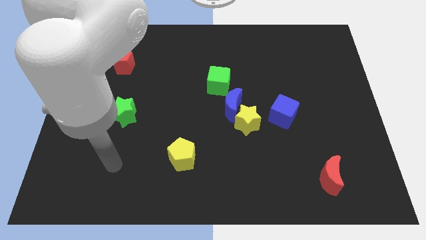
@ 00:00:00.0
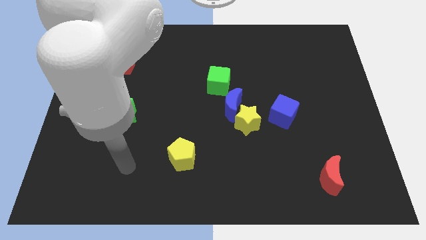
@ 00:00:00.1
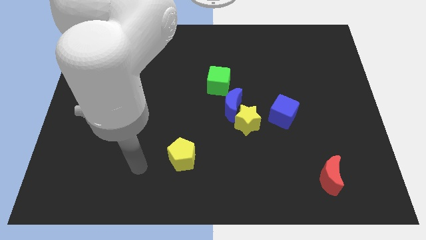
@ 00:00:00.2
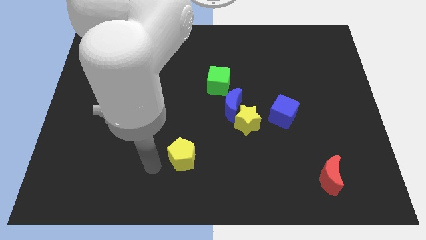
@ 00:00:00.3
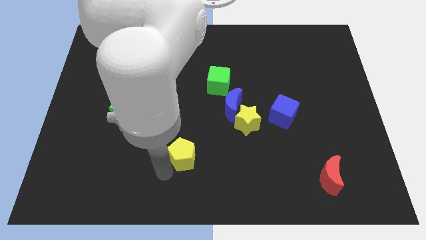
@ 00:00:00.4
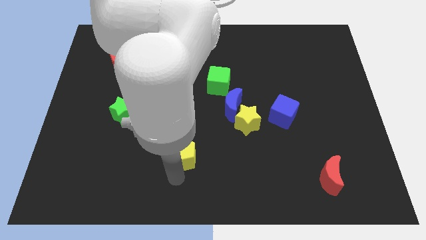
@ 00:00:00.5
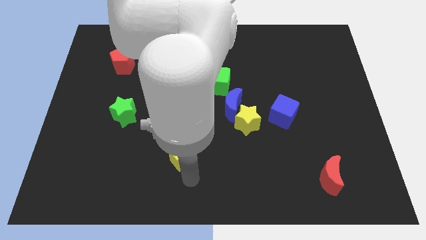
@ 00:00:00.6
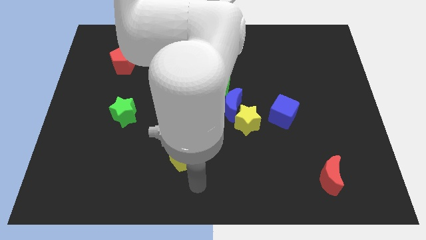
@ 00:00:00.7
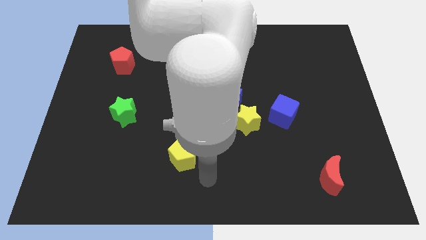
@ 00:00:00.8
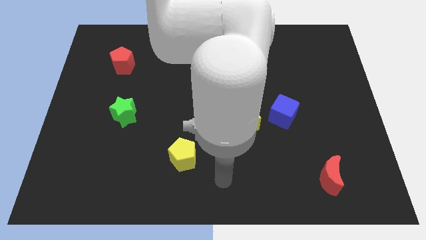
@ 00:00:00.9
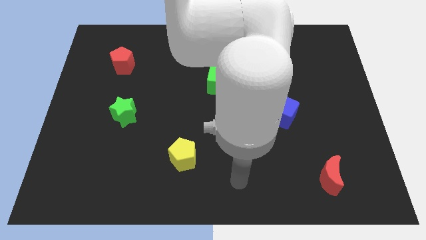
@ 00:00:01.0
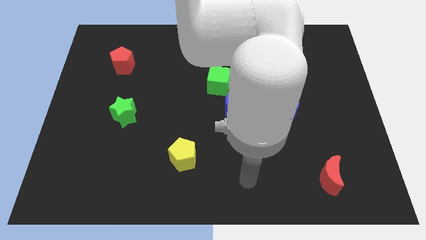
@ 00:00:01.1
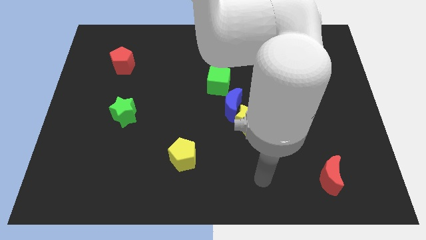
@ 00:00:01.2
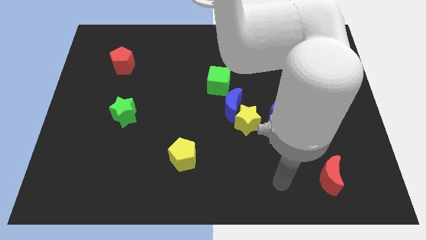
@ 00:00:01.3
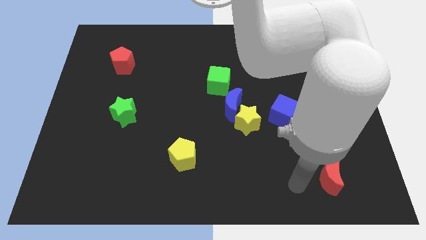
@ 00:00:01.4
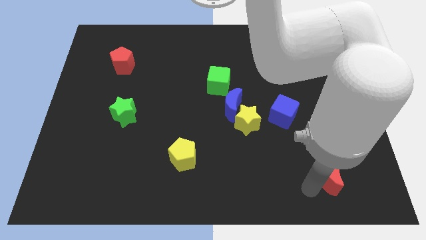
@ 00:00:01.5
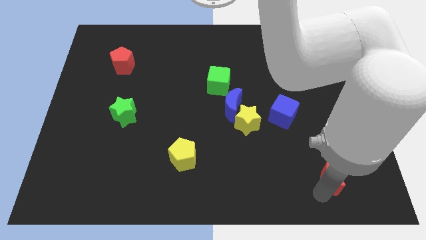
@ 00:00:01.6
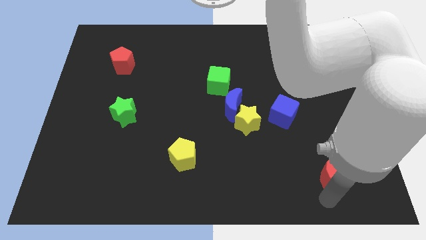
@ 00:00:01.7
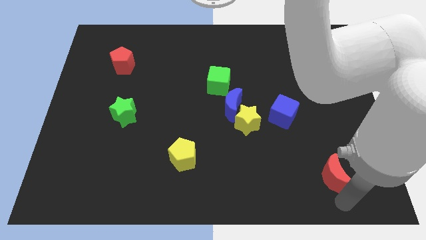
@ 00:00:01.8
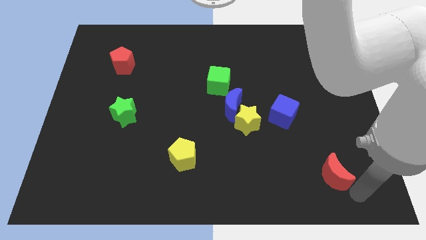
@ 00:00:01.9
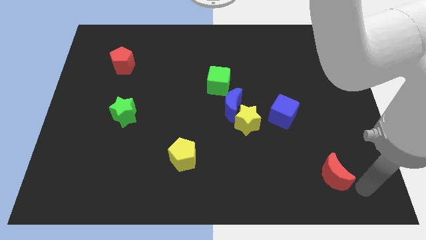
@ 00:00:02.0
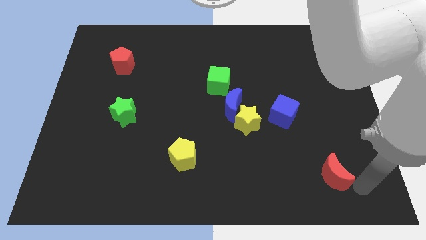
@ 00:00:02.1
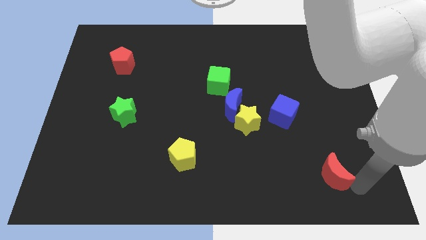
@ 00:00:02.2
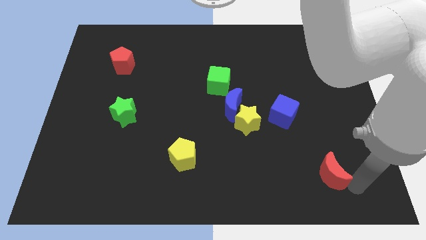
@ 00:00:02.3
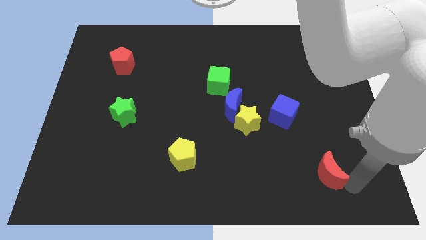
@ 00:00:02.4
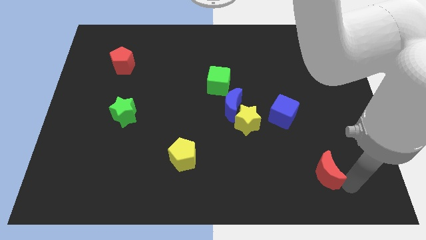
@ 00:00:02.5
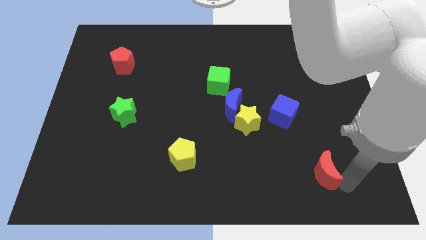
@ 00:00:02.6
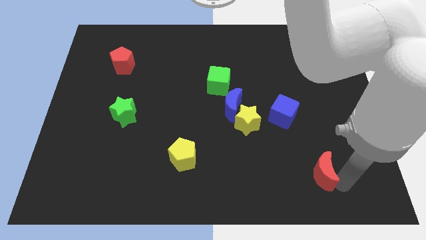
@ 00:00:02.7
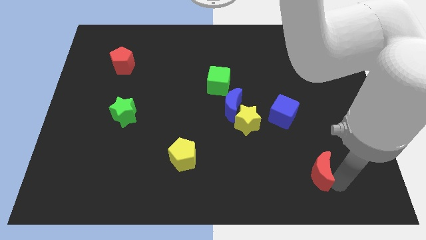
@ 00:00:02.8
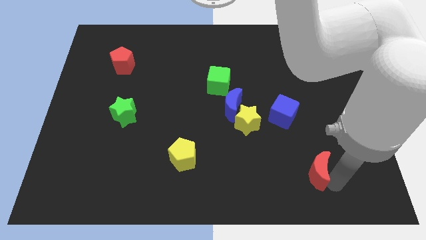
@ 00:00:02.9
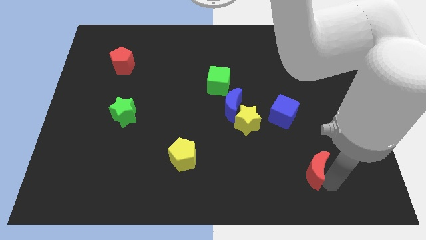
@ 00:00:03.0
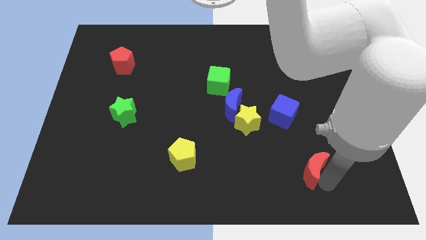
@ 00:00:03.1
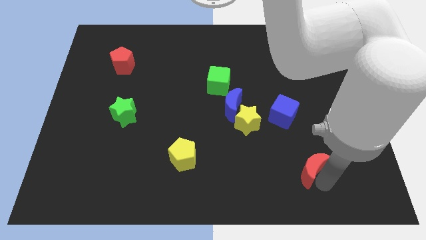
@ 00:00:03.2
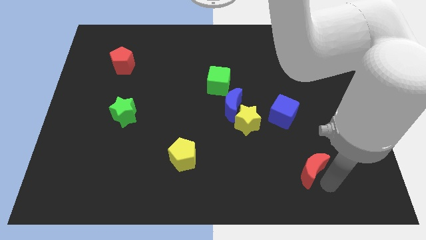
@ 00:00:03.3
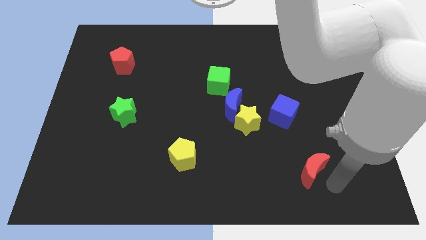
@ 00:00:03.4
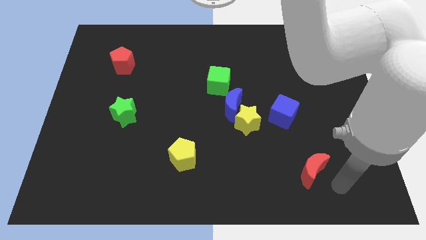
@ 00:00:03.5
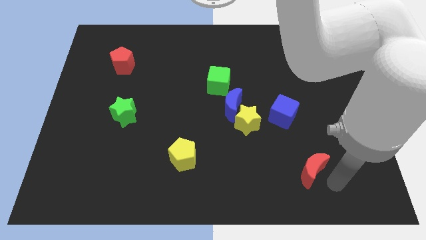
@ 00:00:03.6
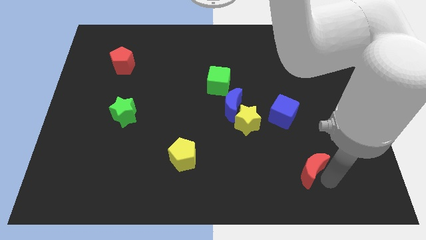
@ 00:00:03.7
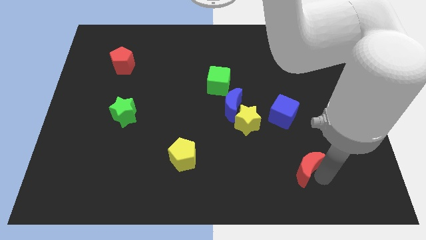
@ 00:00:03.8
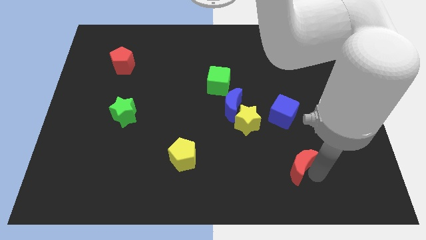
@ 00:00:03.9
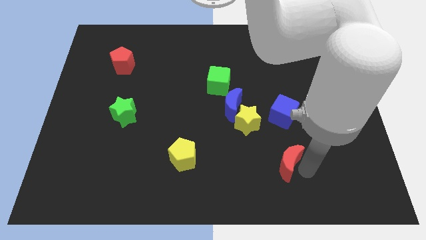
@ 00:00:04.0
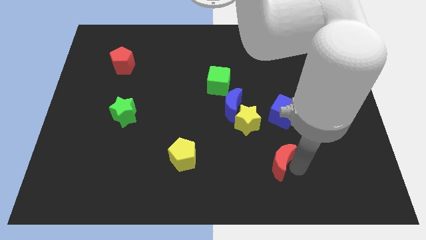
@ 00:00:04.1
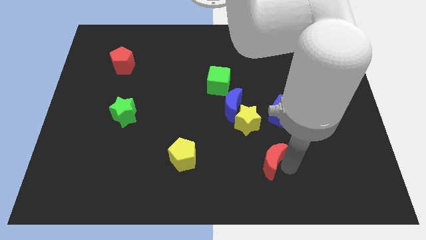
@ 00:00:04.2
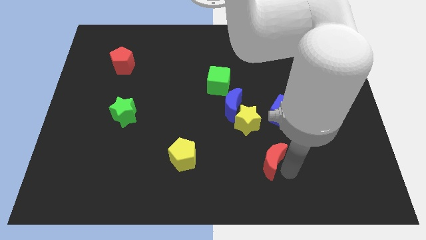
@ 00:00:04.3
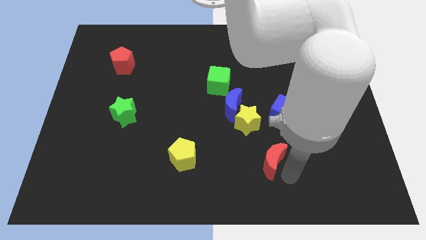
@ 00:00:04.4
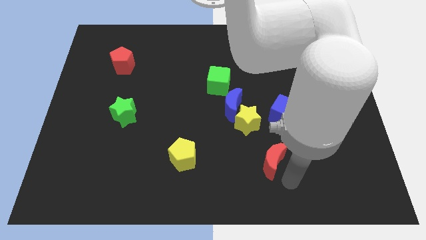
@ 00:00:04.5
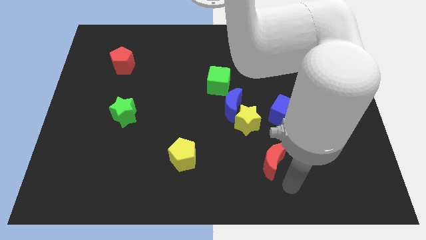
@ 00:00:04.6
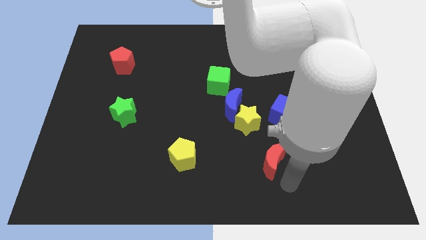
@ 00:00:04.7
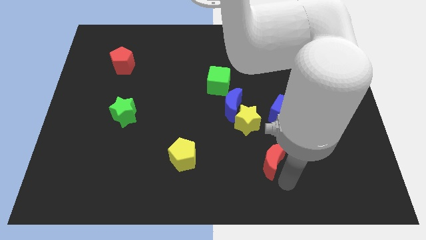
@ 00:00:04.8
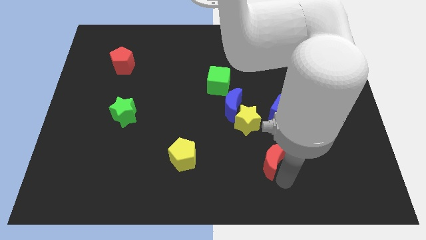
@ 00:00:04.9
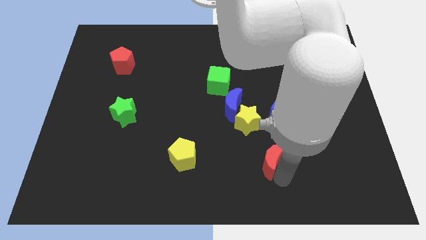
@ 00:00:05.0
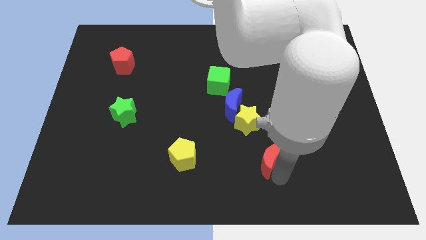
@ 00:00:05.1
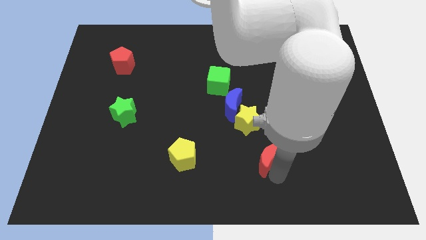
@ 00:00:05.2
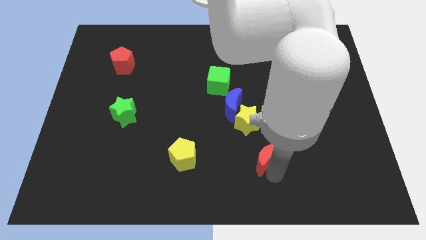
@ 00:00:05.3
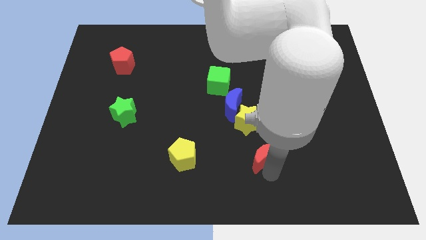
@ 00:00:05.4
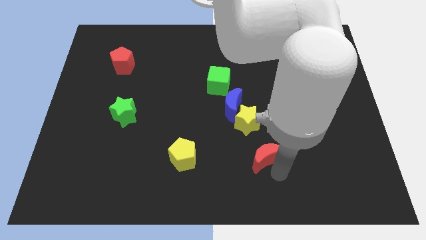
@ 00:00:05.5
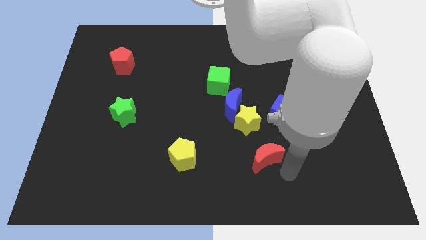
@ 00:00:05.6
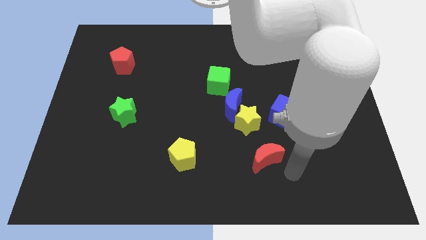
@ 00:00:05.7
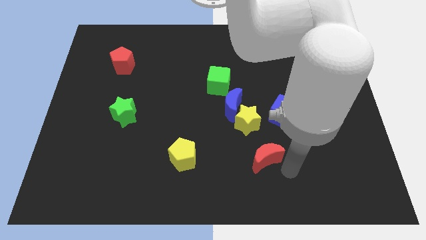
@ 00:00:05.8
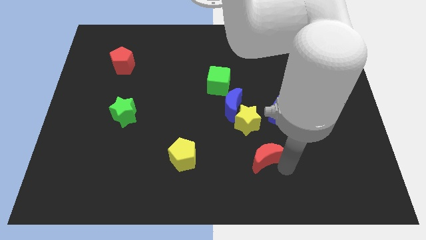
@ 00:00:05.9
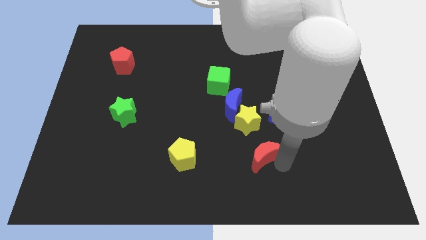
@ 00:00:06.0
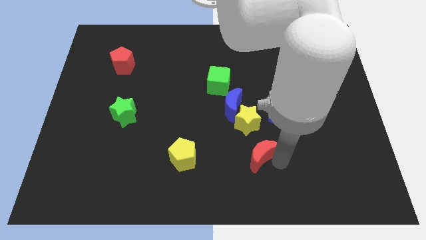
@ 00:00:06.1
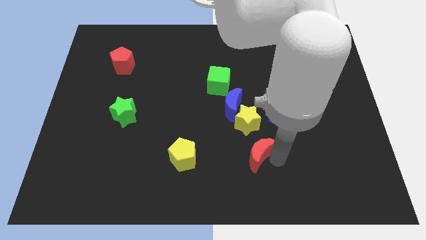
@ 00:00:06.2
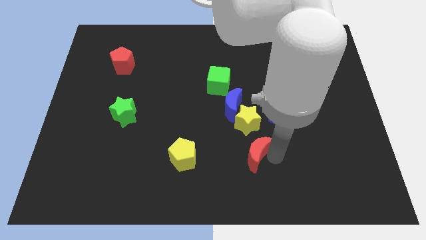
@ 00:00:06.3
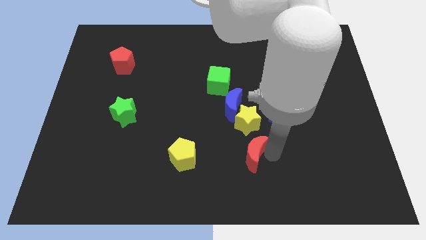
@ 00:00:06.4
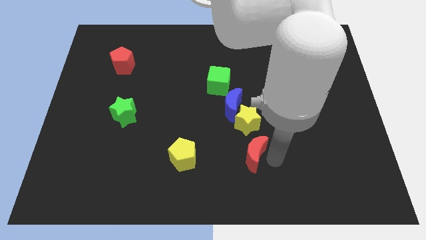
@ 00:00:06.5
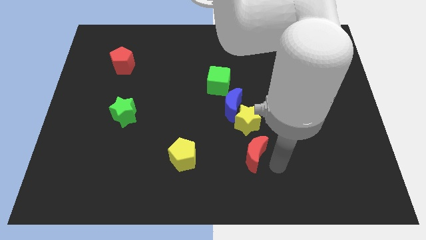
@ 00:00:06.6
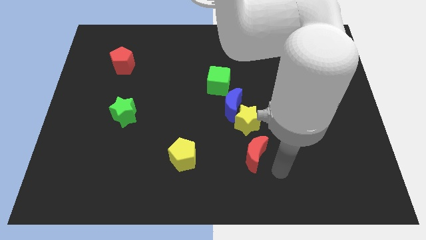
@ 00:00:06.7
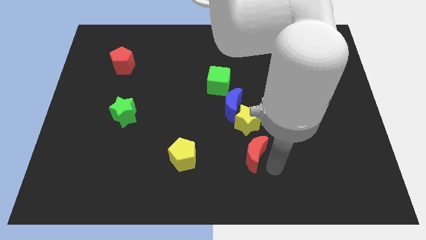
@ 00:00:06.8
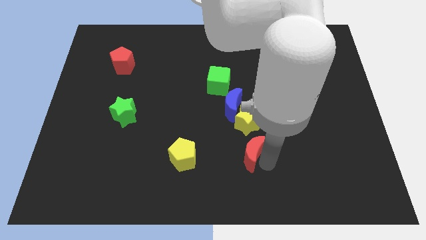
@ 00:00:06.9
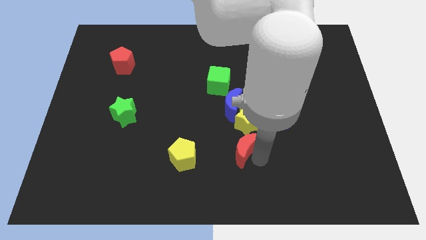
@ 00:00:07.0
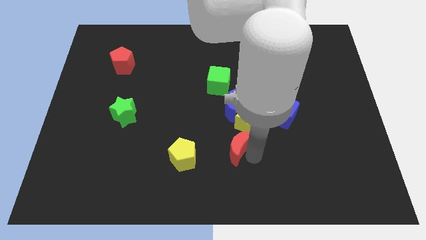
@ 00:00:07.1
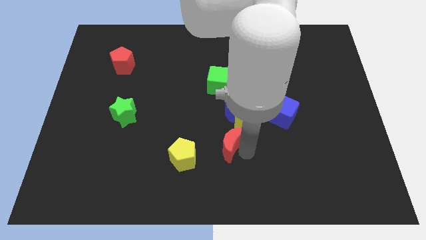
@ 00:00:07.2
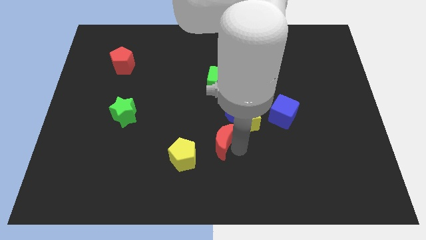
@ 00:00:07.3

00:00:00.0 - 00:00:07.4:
move the red moon to the top right side of the yellow pentagon
